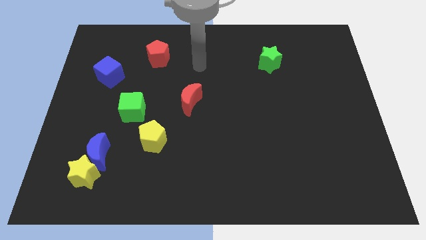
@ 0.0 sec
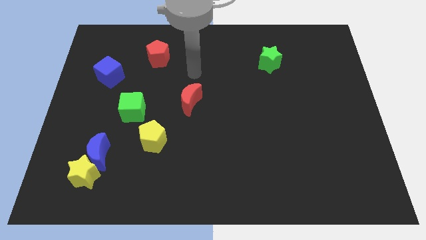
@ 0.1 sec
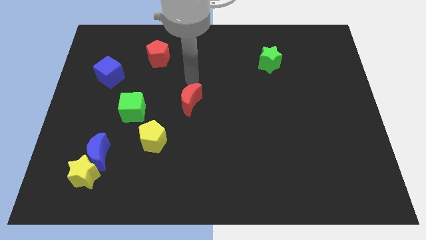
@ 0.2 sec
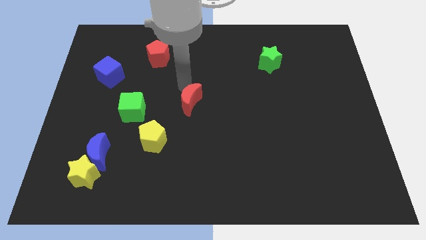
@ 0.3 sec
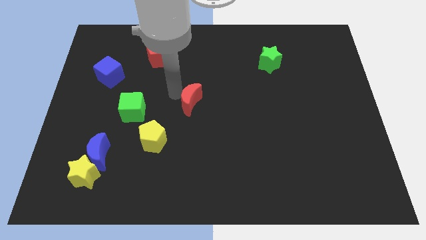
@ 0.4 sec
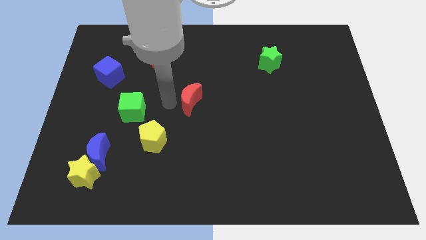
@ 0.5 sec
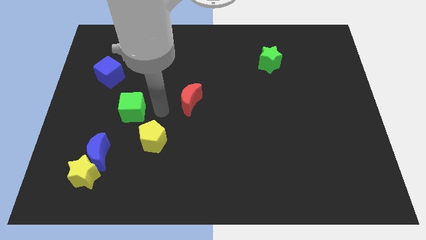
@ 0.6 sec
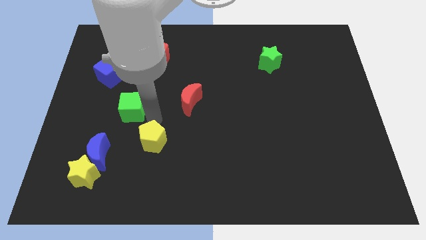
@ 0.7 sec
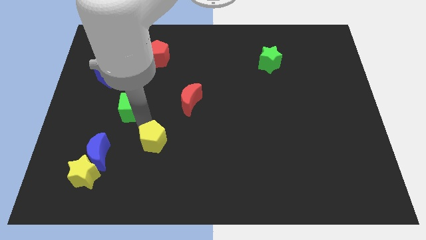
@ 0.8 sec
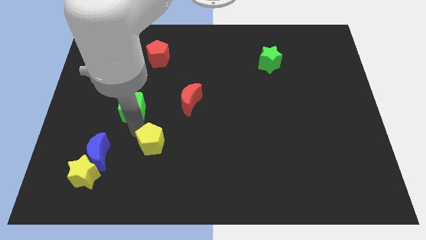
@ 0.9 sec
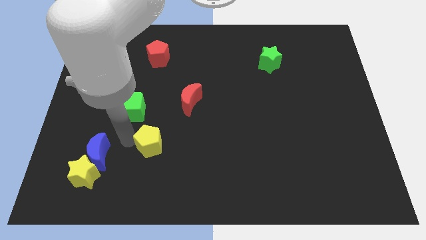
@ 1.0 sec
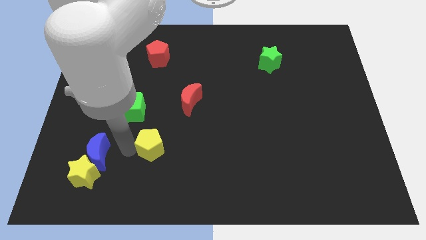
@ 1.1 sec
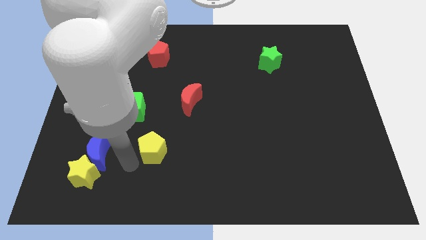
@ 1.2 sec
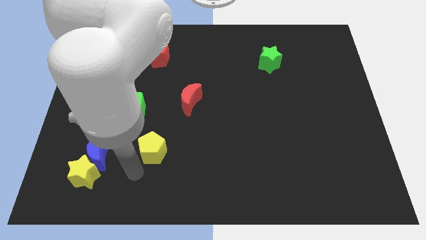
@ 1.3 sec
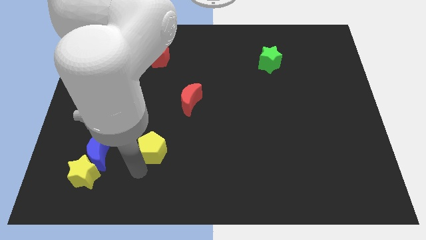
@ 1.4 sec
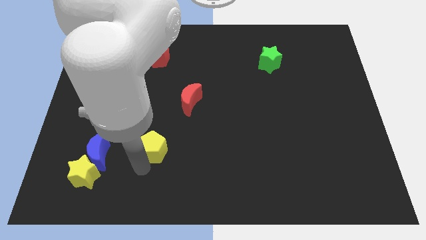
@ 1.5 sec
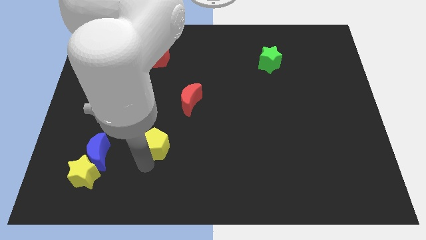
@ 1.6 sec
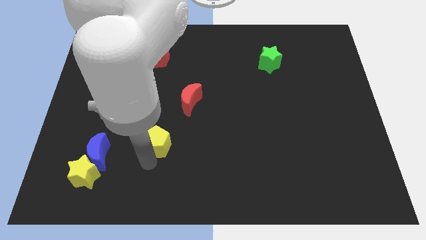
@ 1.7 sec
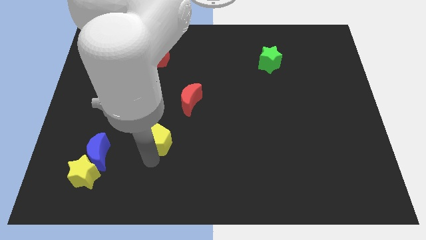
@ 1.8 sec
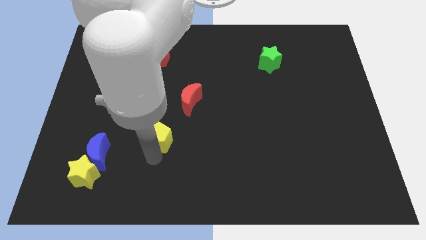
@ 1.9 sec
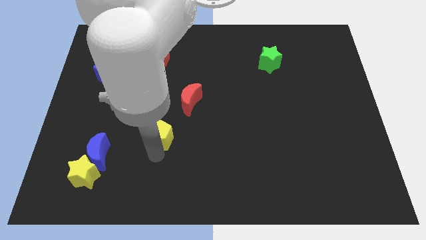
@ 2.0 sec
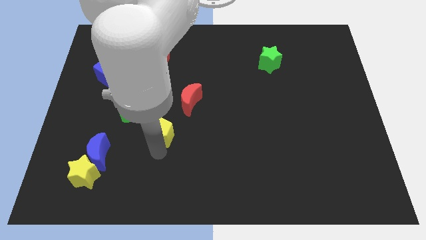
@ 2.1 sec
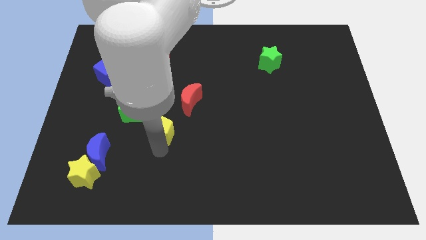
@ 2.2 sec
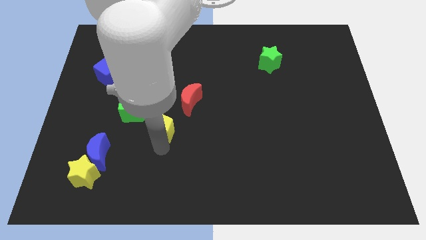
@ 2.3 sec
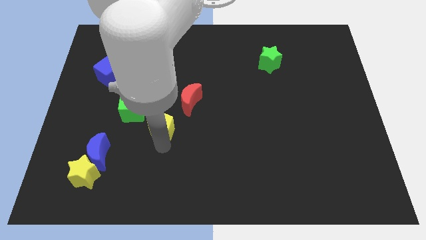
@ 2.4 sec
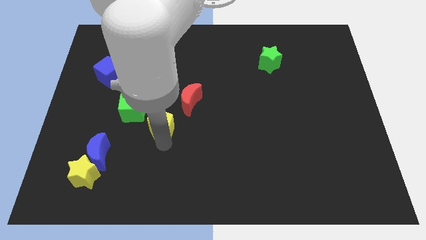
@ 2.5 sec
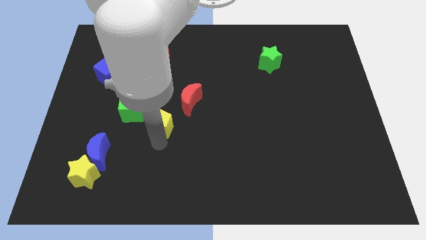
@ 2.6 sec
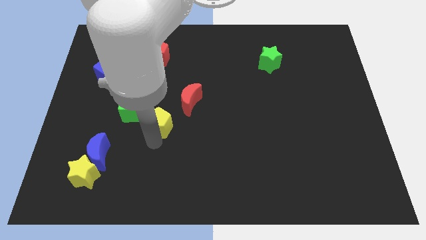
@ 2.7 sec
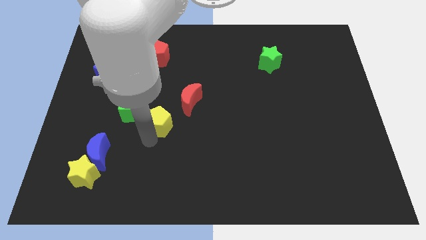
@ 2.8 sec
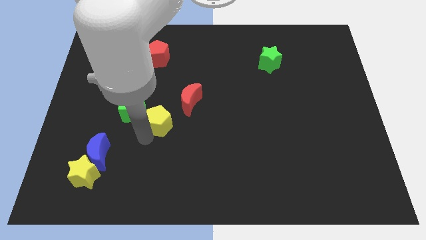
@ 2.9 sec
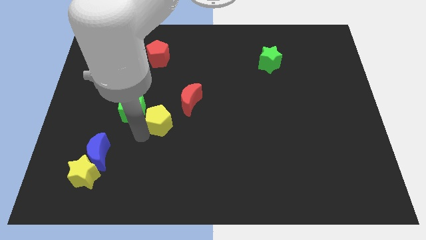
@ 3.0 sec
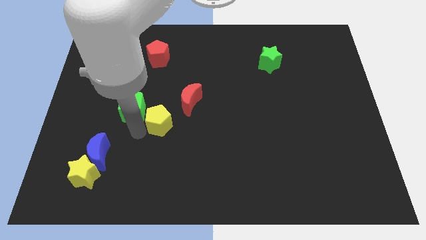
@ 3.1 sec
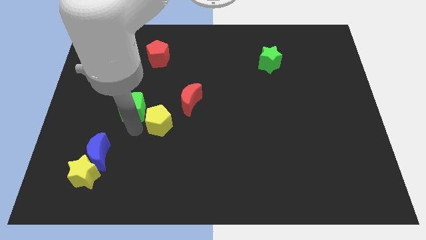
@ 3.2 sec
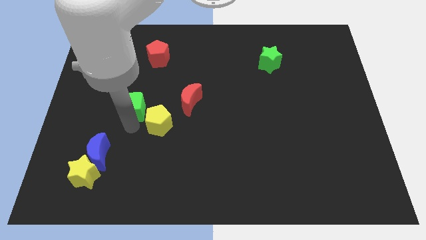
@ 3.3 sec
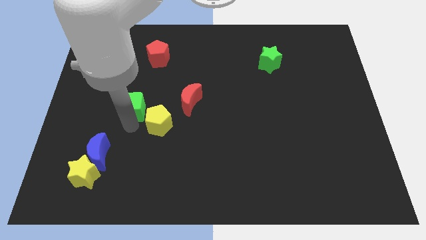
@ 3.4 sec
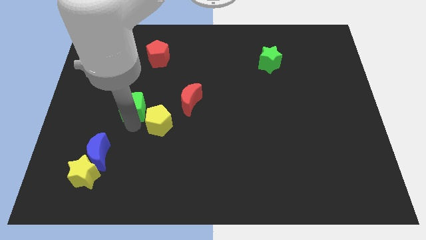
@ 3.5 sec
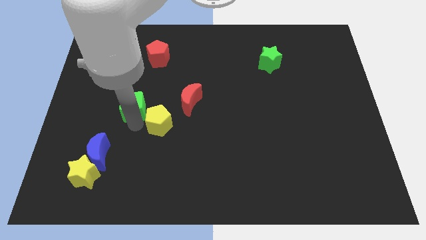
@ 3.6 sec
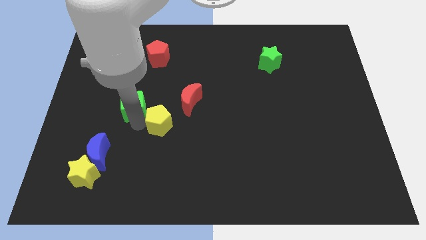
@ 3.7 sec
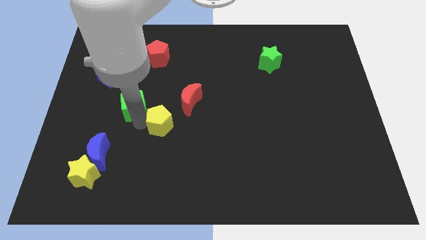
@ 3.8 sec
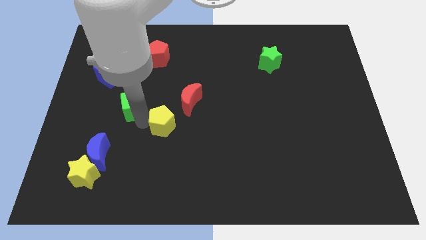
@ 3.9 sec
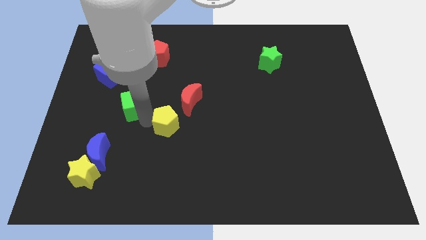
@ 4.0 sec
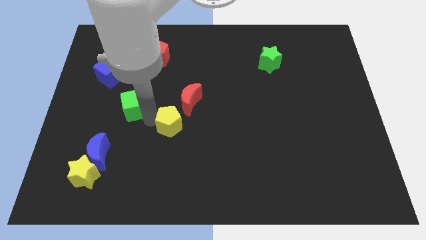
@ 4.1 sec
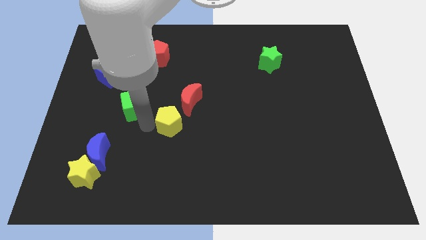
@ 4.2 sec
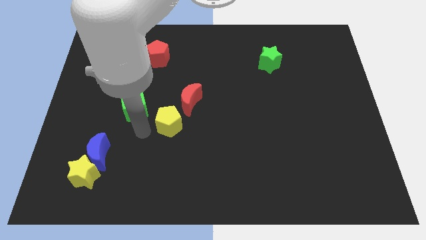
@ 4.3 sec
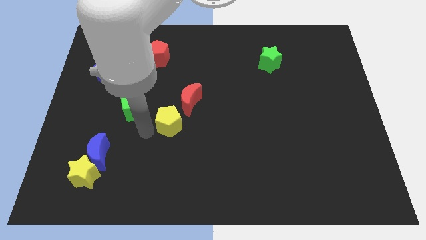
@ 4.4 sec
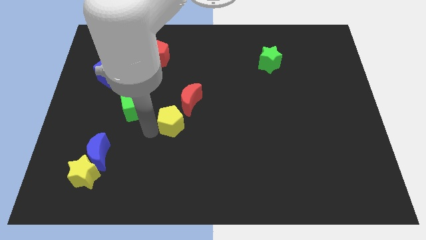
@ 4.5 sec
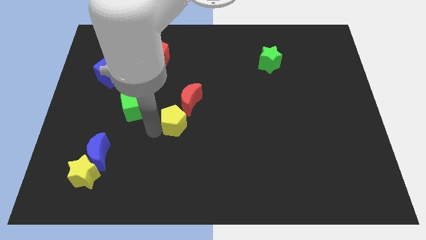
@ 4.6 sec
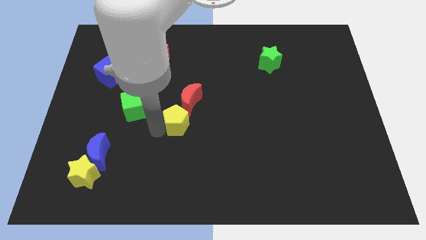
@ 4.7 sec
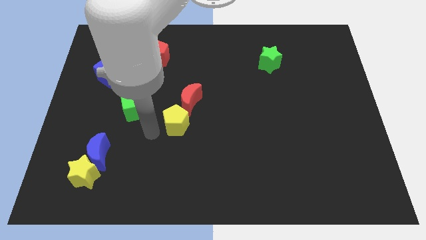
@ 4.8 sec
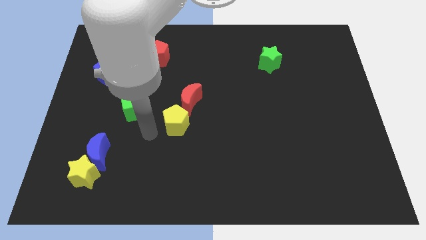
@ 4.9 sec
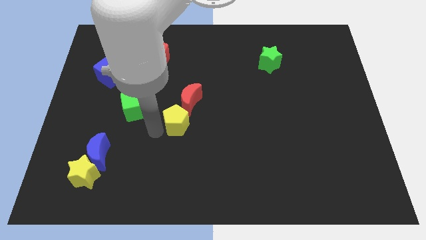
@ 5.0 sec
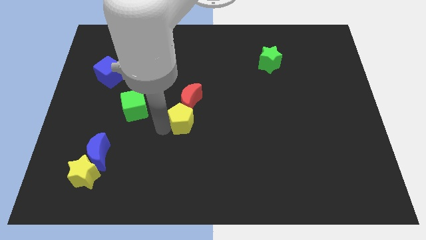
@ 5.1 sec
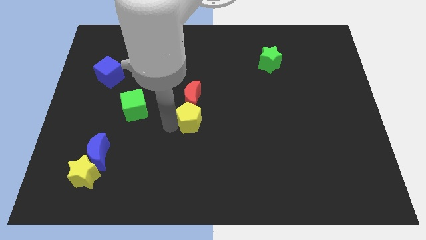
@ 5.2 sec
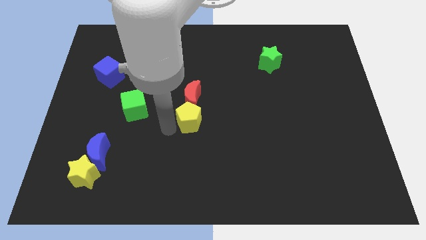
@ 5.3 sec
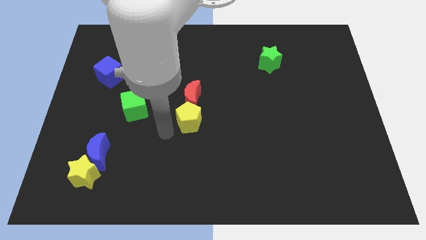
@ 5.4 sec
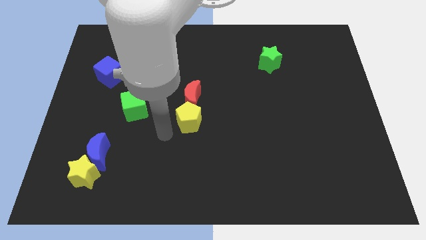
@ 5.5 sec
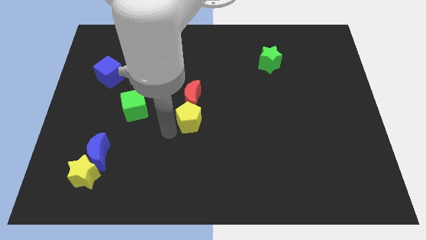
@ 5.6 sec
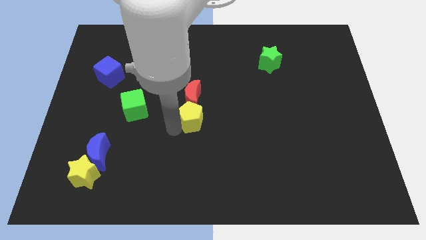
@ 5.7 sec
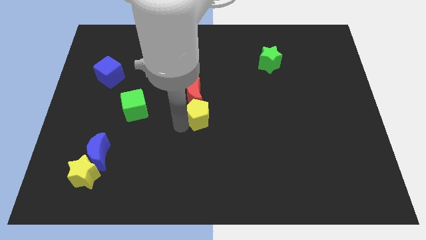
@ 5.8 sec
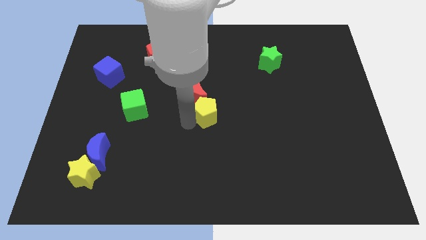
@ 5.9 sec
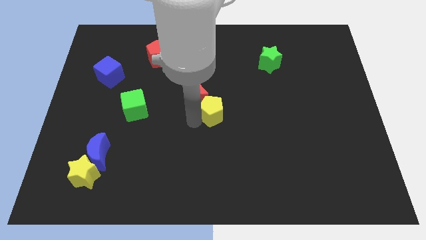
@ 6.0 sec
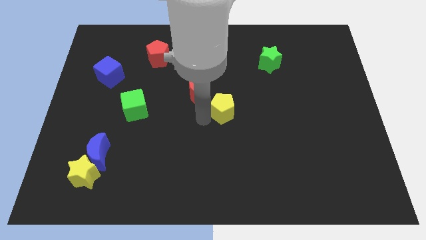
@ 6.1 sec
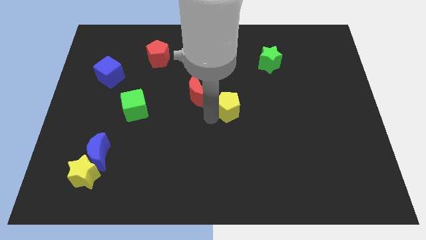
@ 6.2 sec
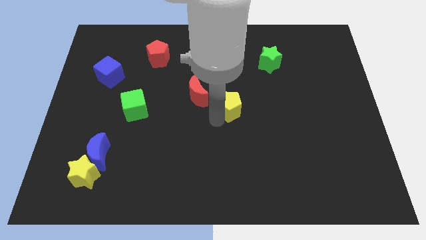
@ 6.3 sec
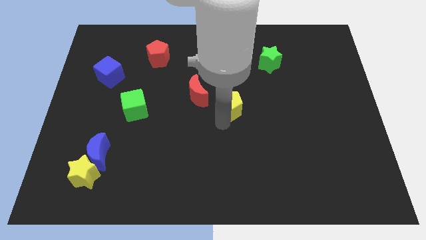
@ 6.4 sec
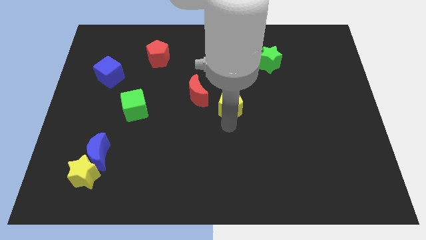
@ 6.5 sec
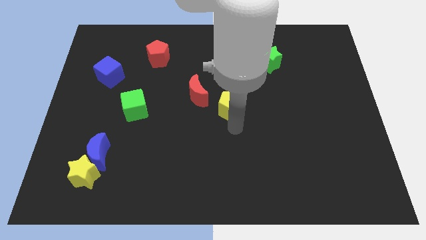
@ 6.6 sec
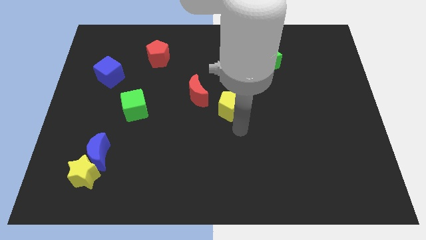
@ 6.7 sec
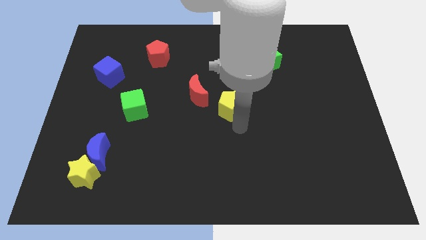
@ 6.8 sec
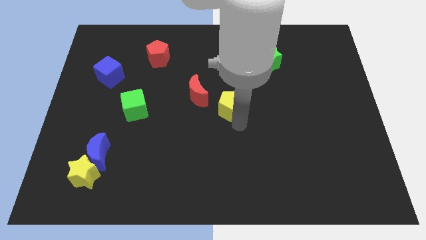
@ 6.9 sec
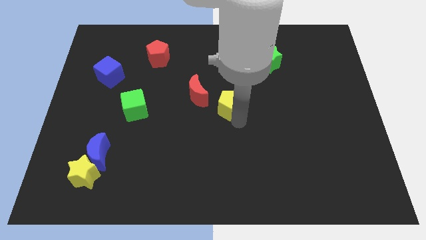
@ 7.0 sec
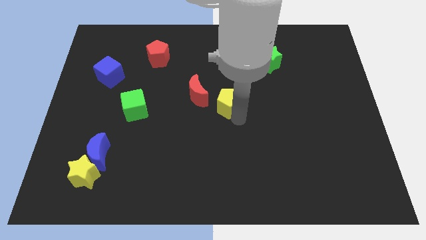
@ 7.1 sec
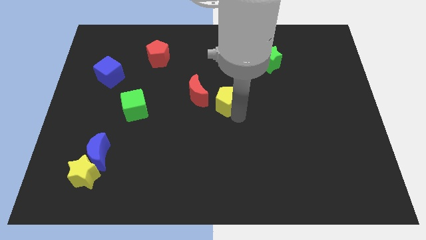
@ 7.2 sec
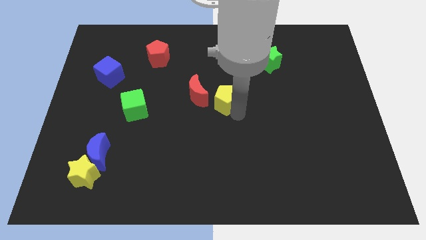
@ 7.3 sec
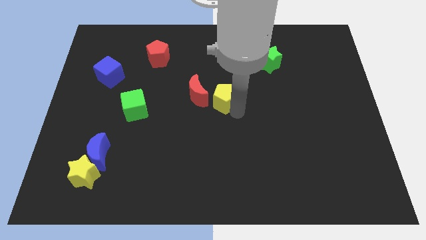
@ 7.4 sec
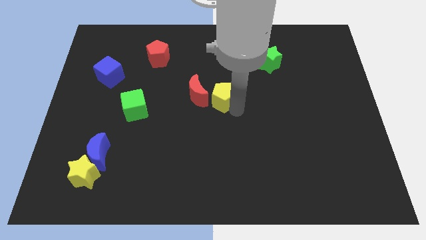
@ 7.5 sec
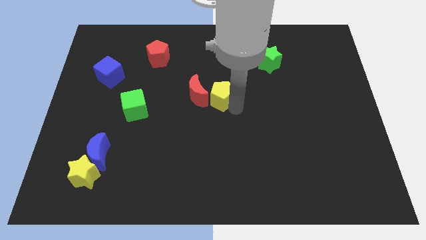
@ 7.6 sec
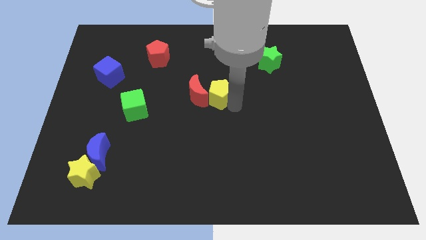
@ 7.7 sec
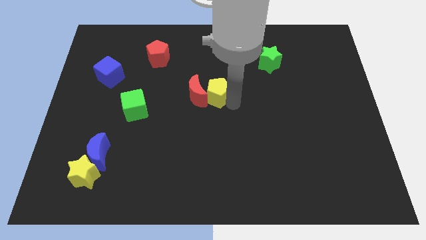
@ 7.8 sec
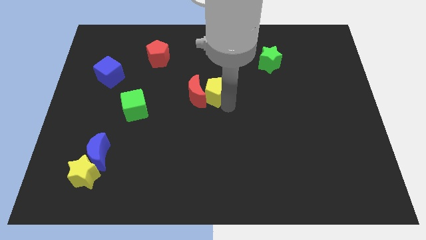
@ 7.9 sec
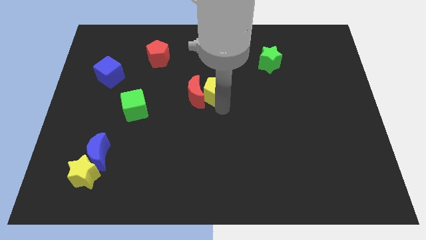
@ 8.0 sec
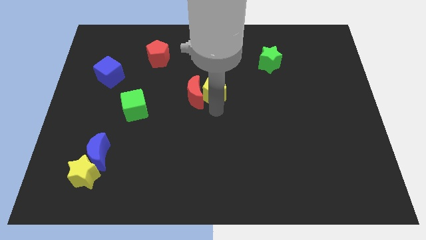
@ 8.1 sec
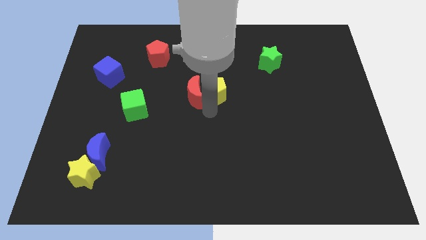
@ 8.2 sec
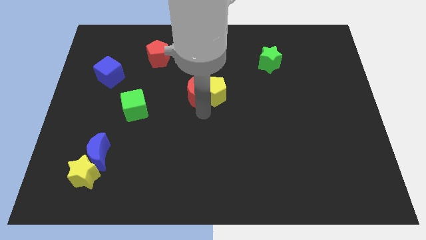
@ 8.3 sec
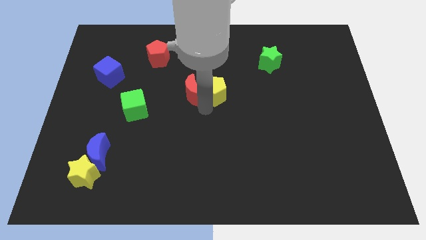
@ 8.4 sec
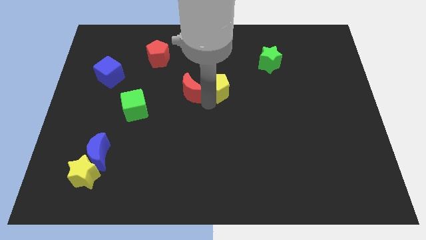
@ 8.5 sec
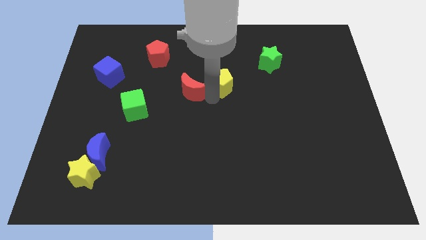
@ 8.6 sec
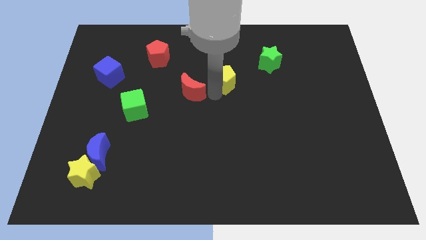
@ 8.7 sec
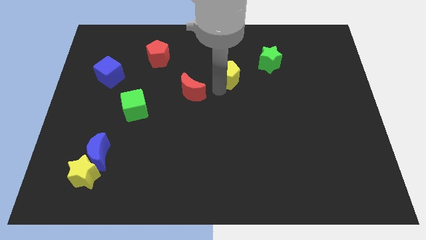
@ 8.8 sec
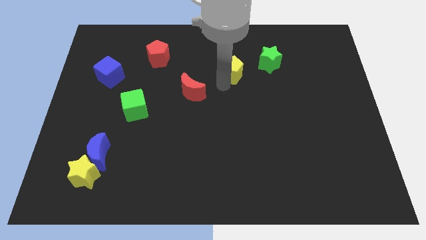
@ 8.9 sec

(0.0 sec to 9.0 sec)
move the yellow pentagon to the left side of the green star
